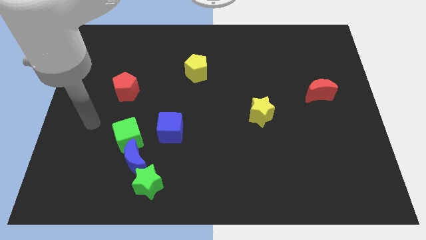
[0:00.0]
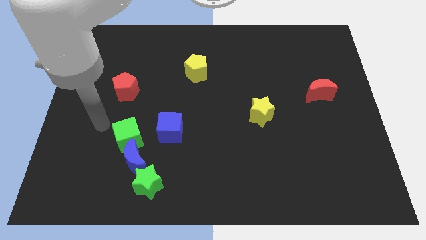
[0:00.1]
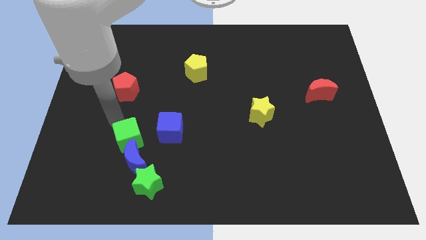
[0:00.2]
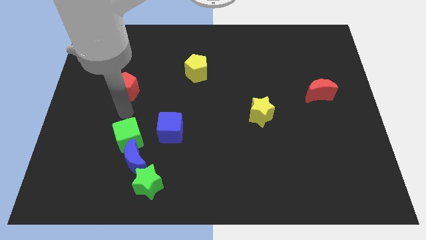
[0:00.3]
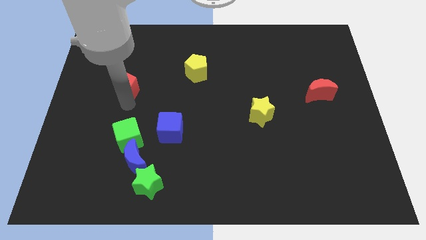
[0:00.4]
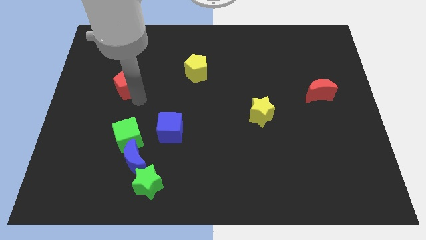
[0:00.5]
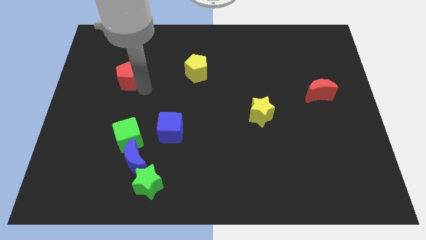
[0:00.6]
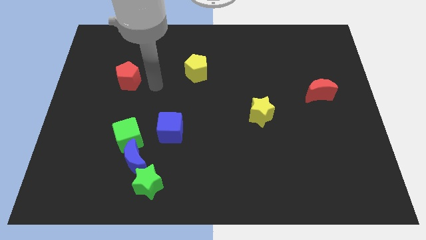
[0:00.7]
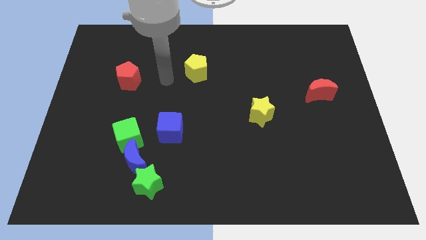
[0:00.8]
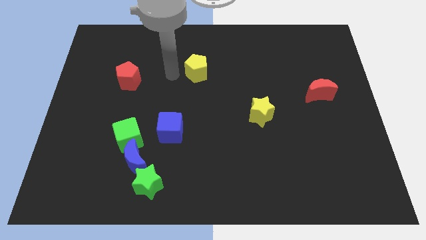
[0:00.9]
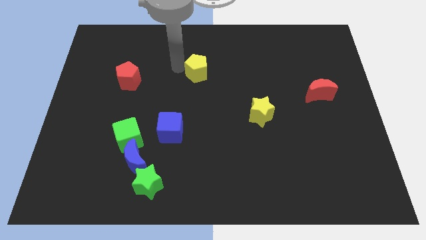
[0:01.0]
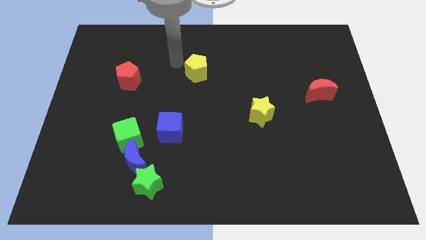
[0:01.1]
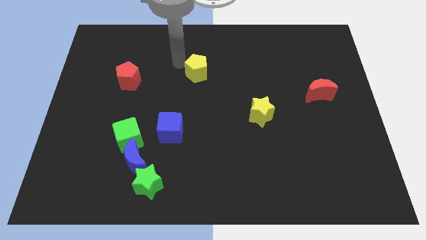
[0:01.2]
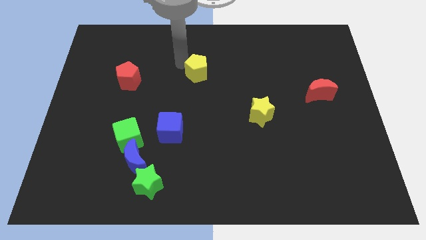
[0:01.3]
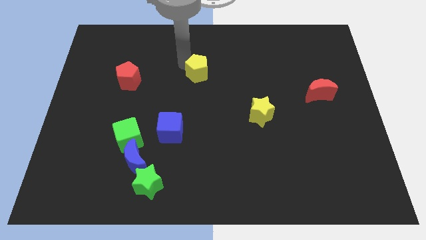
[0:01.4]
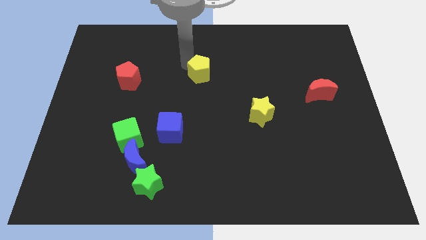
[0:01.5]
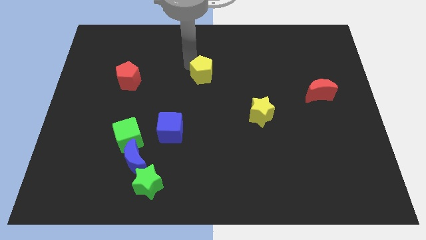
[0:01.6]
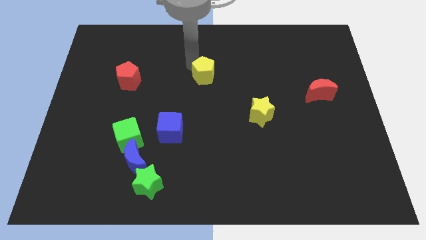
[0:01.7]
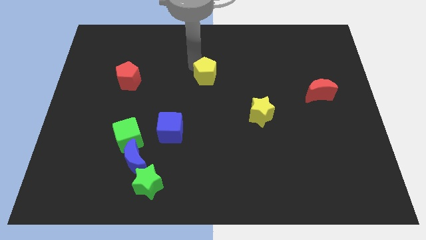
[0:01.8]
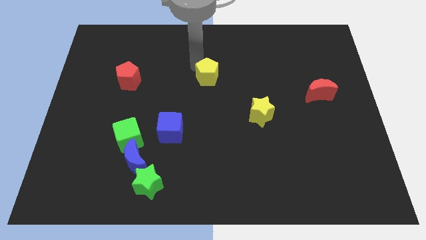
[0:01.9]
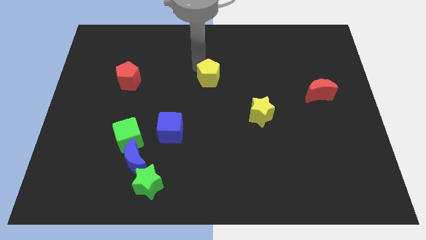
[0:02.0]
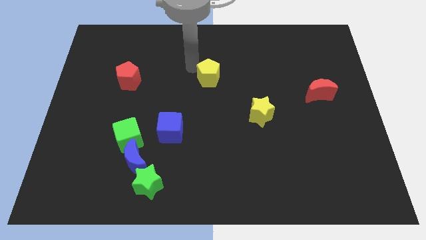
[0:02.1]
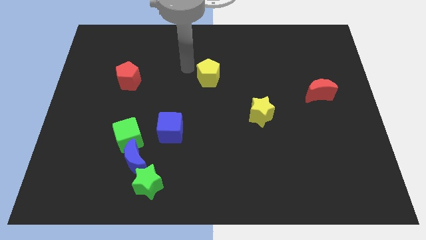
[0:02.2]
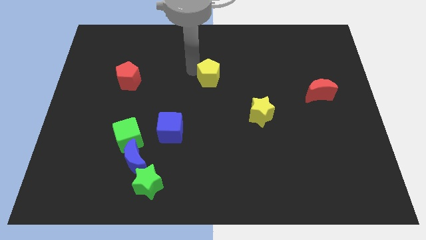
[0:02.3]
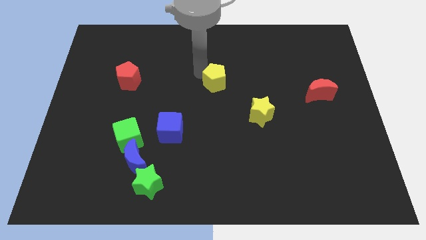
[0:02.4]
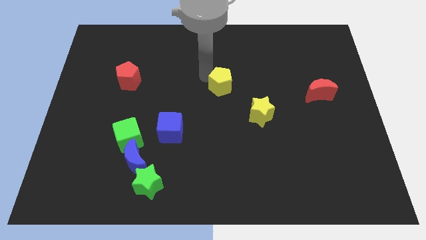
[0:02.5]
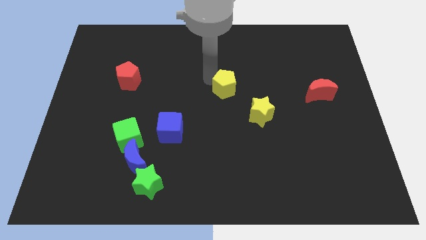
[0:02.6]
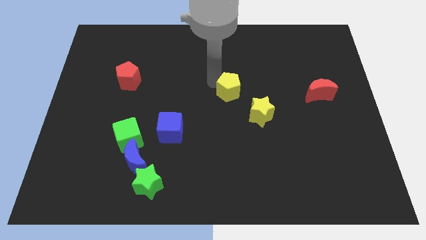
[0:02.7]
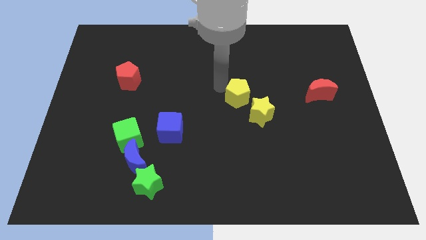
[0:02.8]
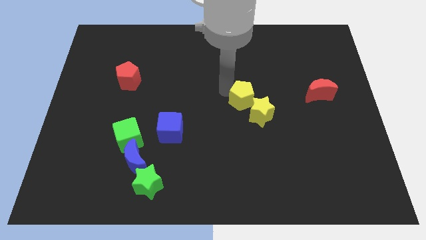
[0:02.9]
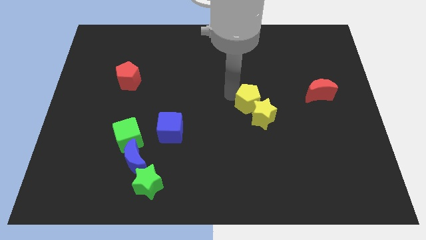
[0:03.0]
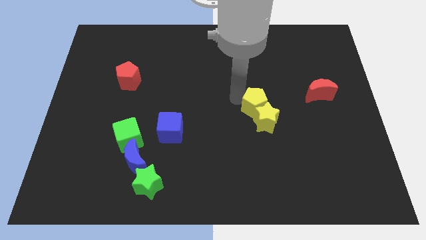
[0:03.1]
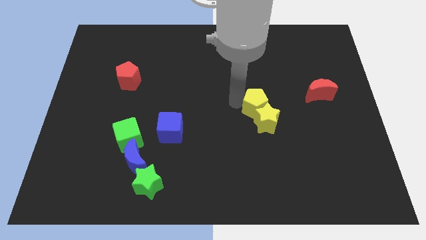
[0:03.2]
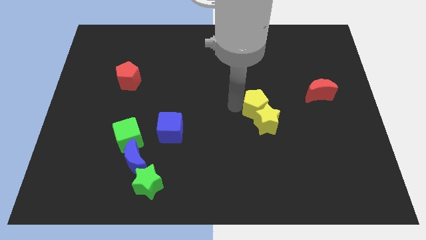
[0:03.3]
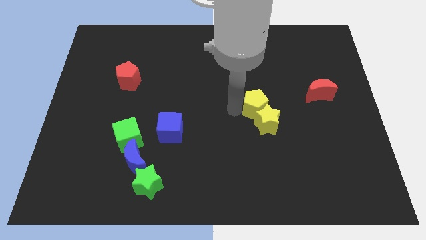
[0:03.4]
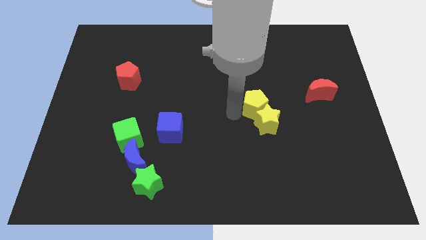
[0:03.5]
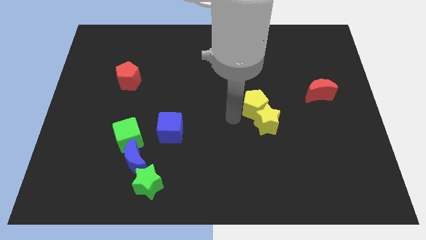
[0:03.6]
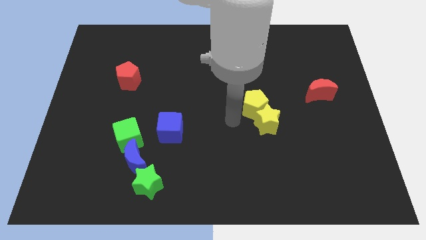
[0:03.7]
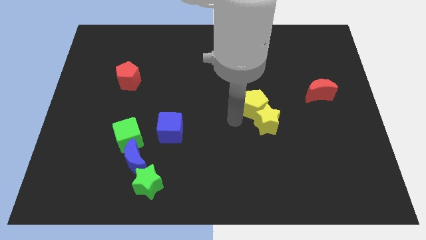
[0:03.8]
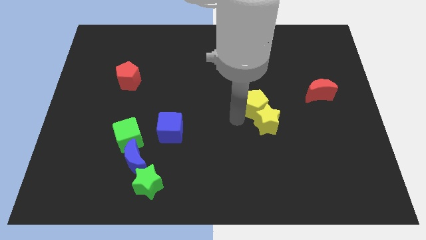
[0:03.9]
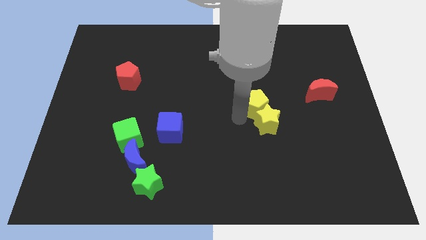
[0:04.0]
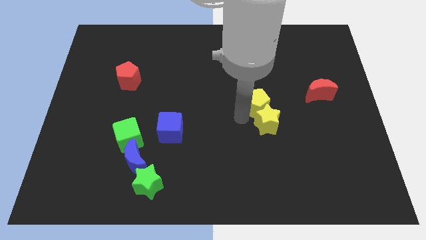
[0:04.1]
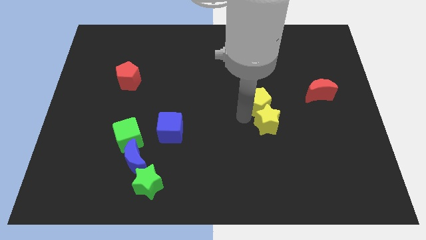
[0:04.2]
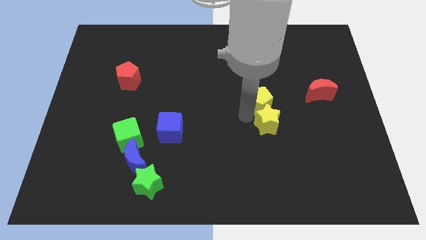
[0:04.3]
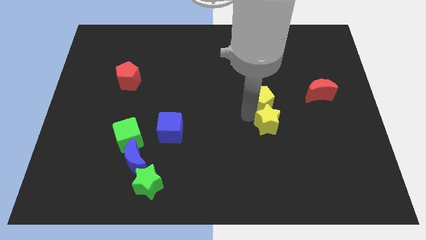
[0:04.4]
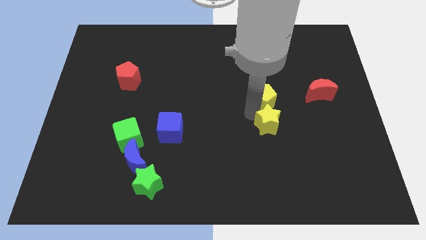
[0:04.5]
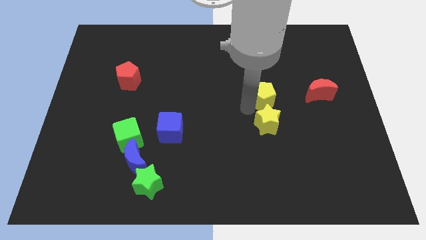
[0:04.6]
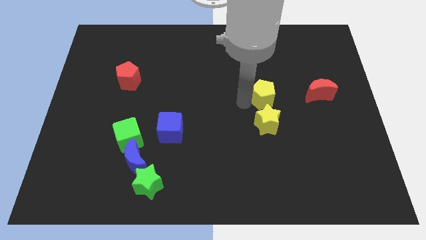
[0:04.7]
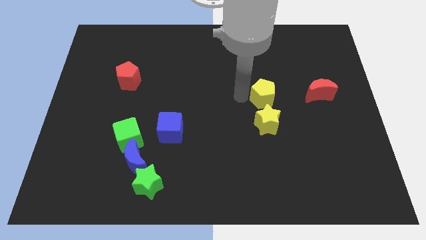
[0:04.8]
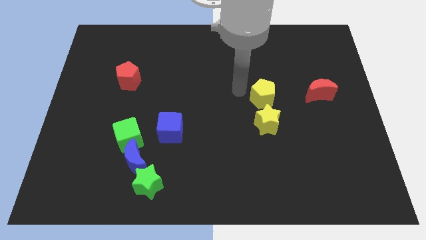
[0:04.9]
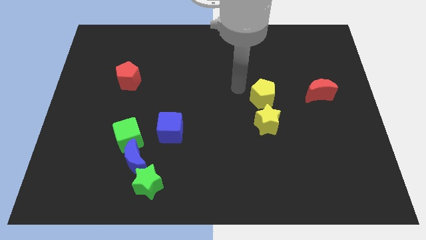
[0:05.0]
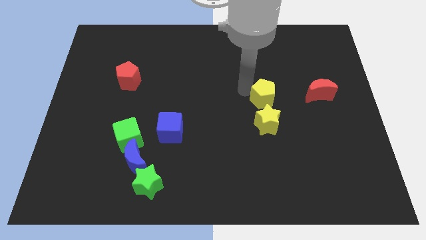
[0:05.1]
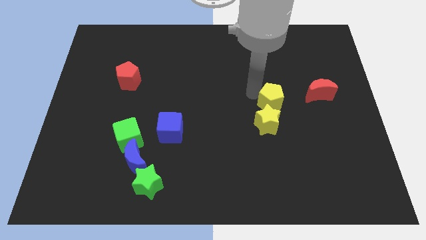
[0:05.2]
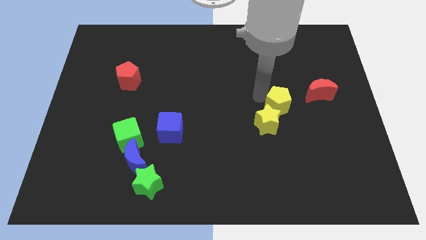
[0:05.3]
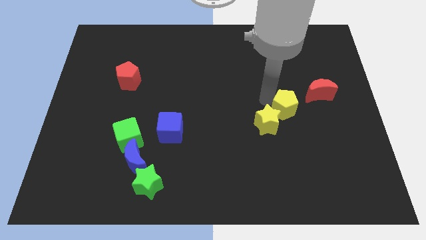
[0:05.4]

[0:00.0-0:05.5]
put the yellow pentagon diagonally down and to the left of the red moon

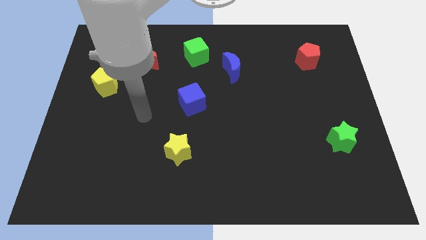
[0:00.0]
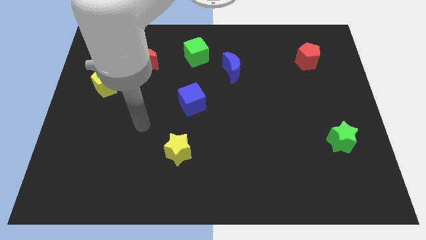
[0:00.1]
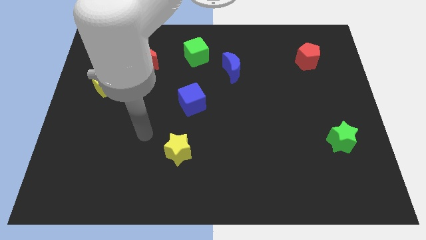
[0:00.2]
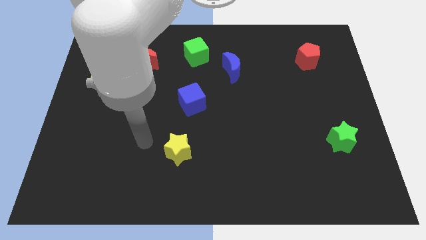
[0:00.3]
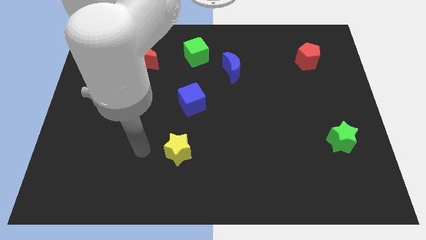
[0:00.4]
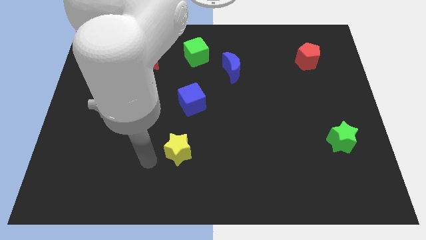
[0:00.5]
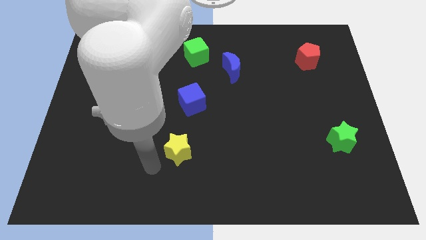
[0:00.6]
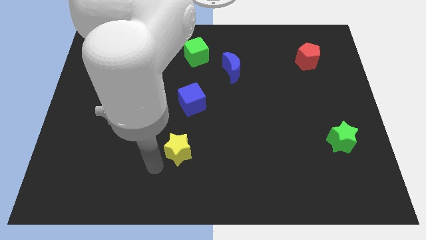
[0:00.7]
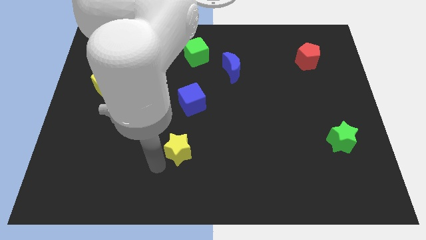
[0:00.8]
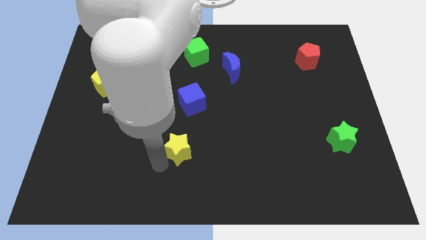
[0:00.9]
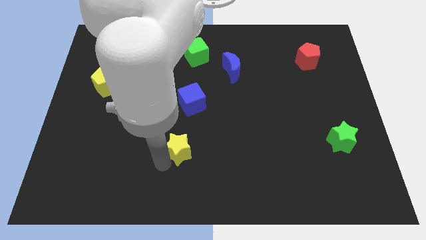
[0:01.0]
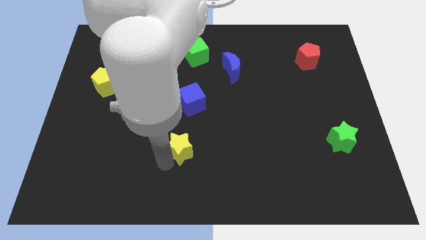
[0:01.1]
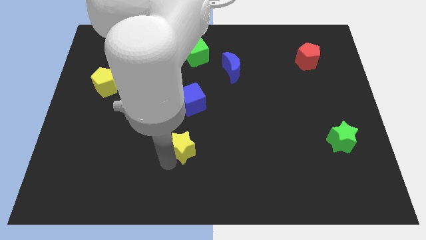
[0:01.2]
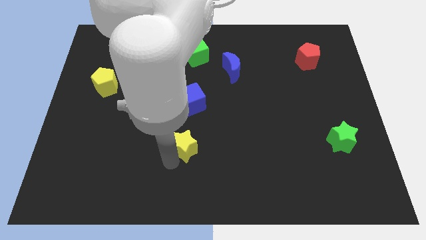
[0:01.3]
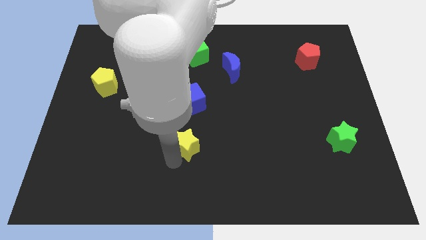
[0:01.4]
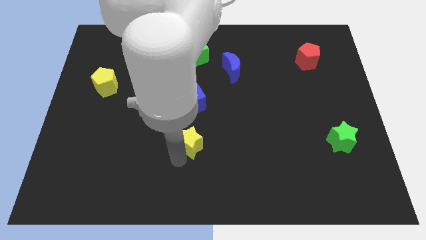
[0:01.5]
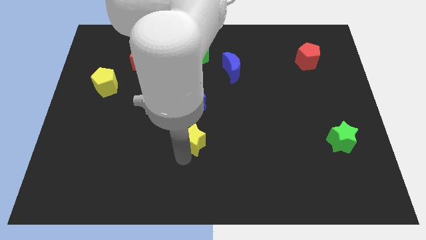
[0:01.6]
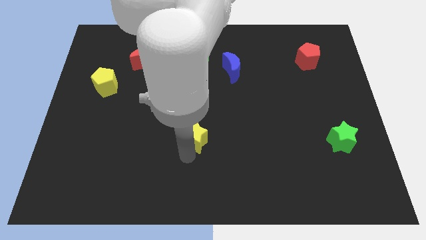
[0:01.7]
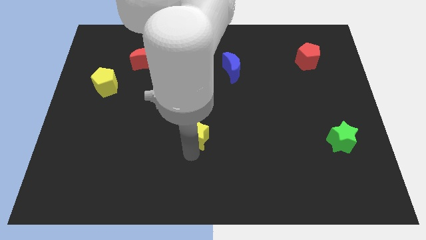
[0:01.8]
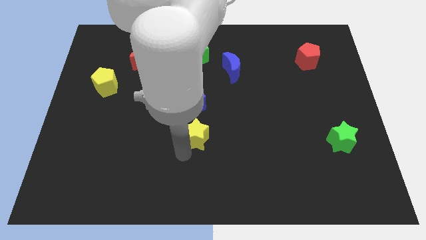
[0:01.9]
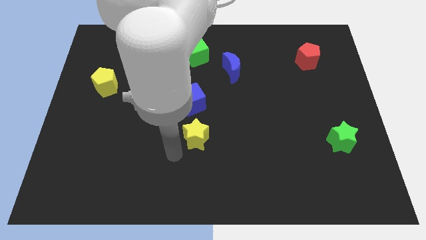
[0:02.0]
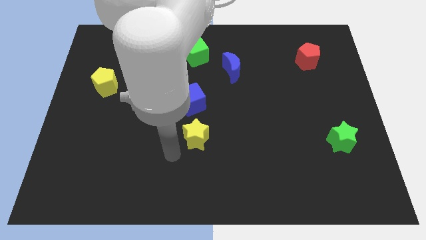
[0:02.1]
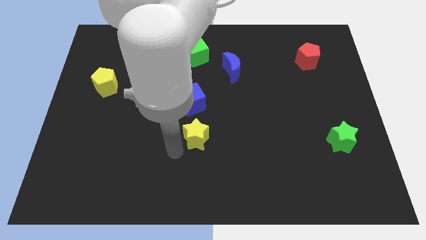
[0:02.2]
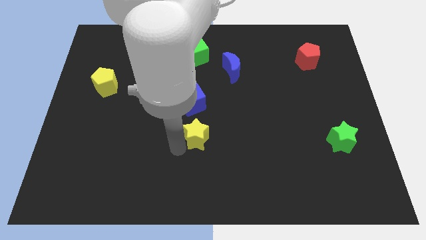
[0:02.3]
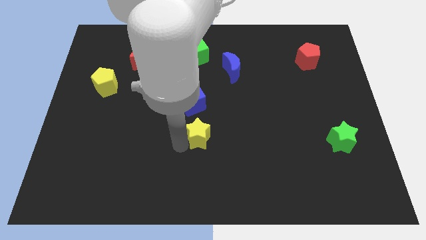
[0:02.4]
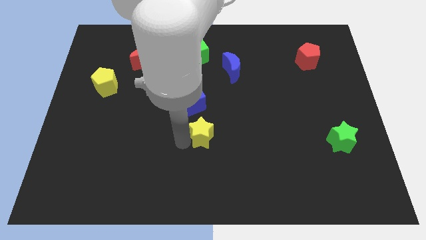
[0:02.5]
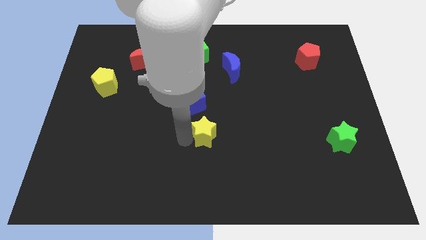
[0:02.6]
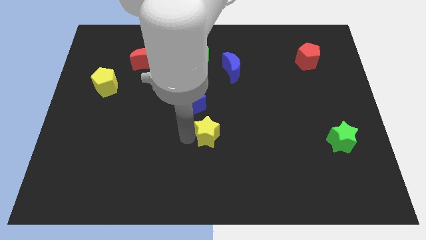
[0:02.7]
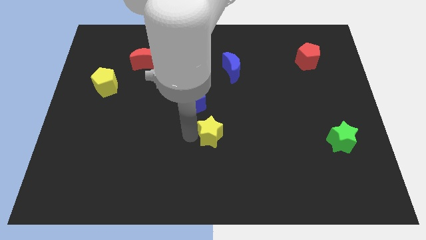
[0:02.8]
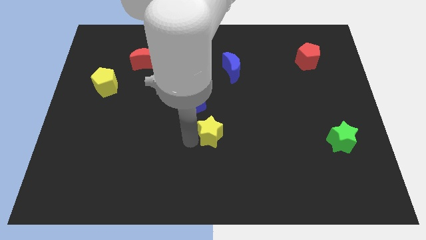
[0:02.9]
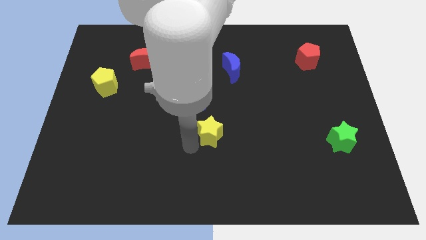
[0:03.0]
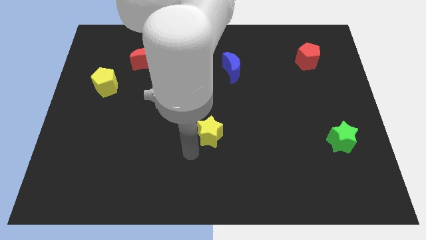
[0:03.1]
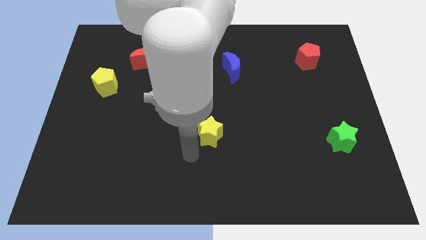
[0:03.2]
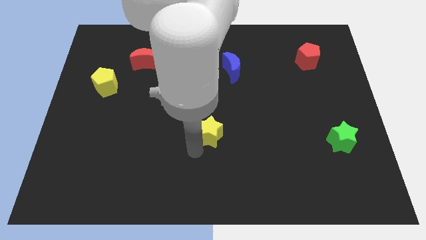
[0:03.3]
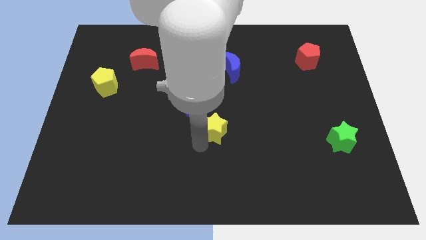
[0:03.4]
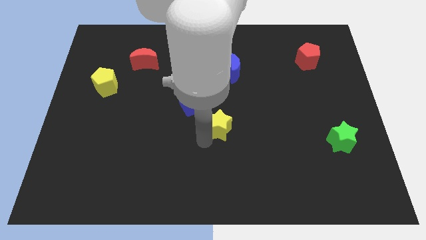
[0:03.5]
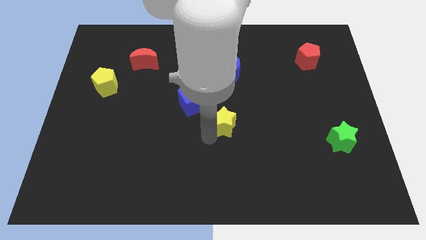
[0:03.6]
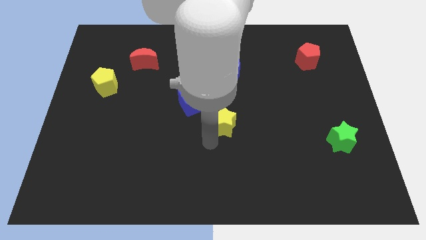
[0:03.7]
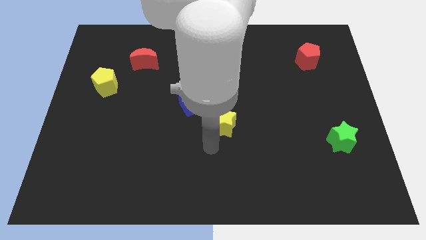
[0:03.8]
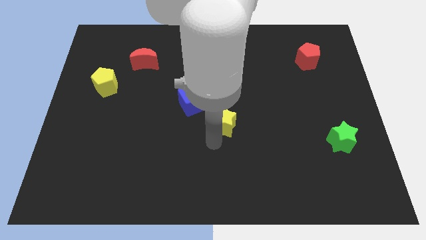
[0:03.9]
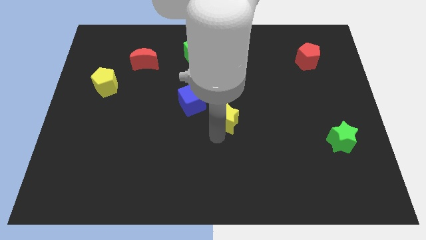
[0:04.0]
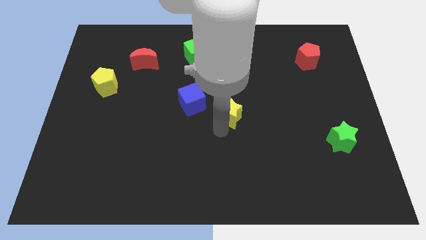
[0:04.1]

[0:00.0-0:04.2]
put the yellow star to the right side of the blue cube
